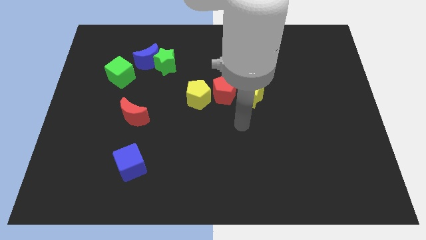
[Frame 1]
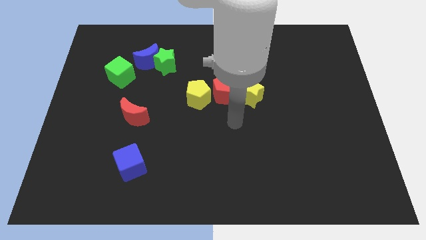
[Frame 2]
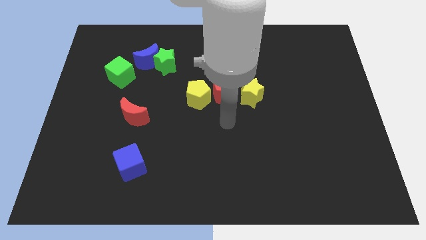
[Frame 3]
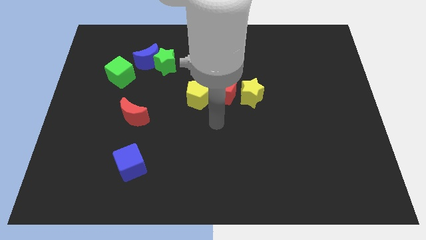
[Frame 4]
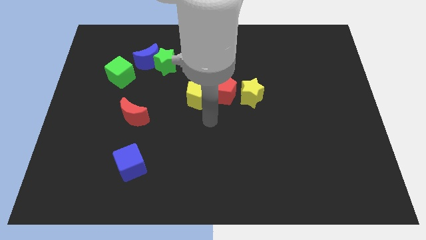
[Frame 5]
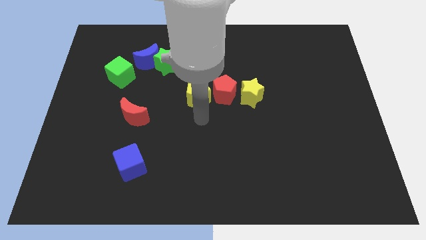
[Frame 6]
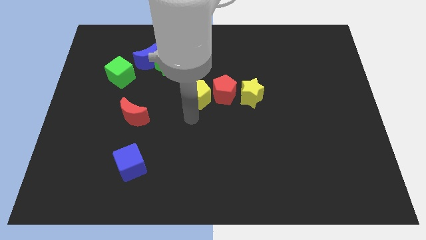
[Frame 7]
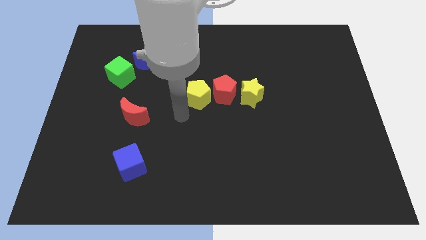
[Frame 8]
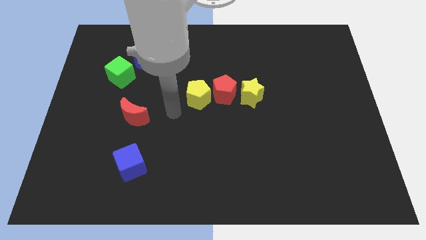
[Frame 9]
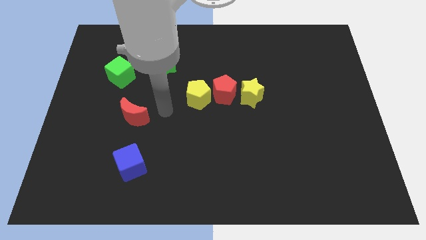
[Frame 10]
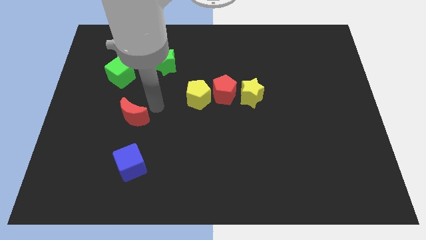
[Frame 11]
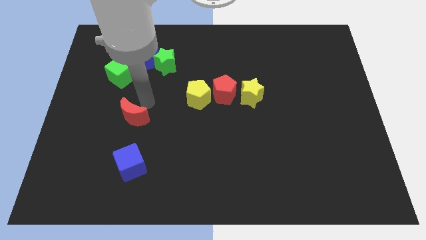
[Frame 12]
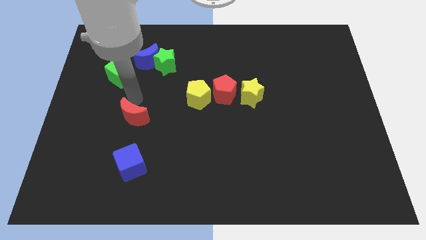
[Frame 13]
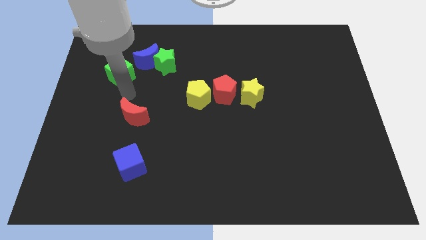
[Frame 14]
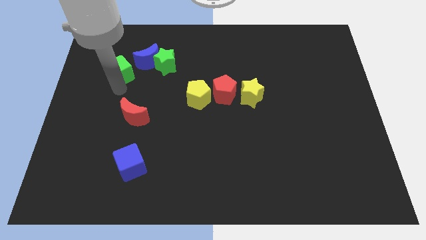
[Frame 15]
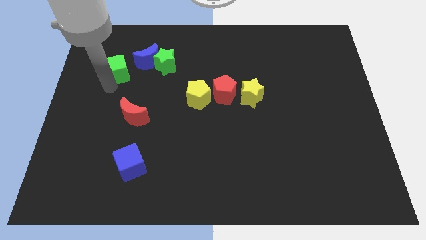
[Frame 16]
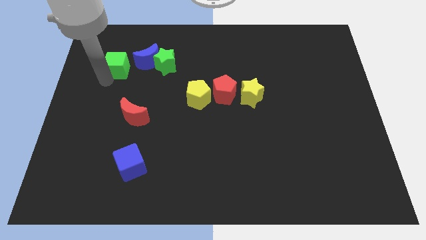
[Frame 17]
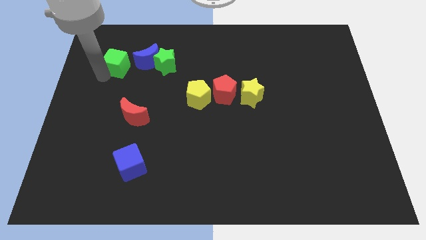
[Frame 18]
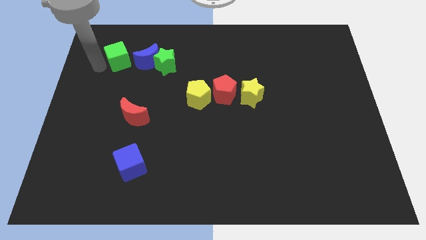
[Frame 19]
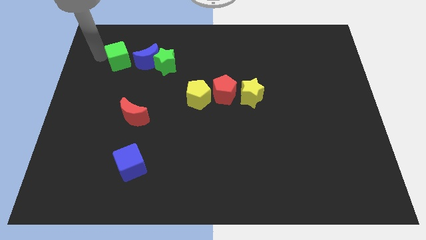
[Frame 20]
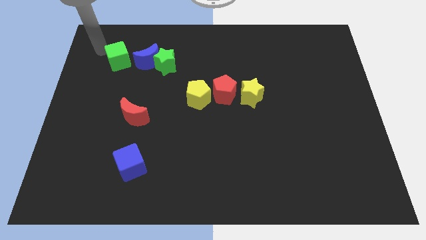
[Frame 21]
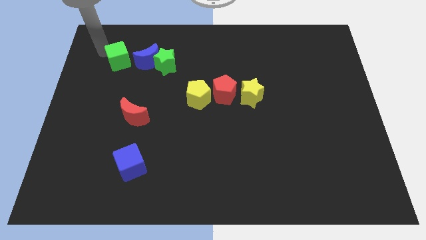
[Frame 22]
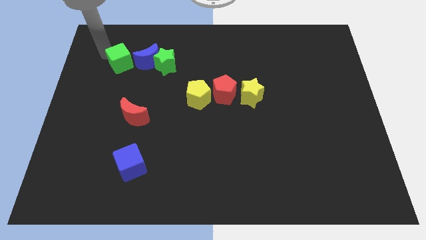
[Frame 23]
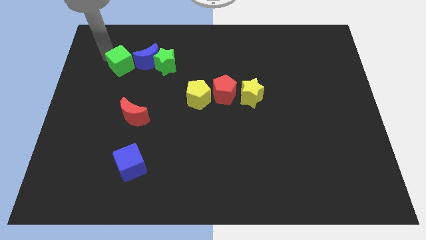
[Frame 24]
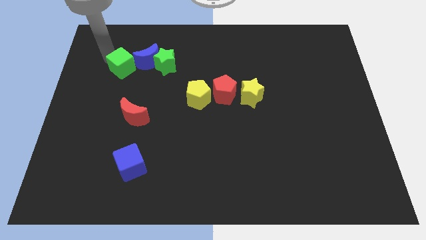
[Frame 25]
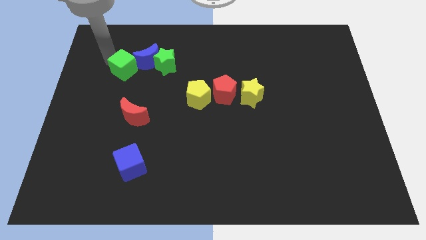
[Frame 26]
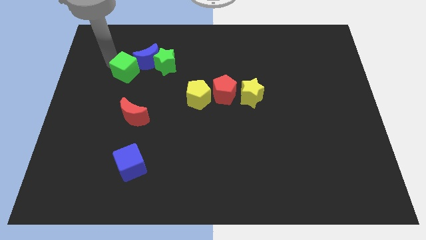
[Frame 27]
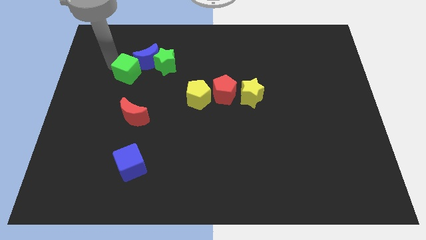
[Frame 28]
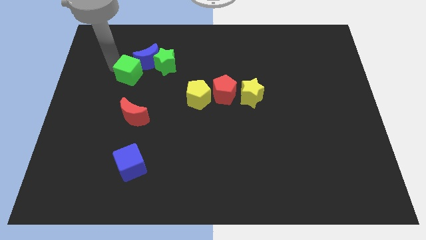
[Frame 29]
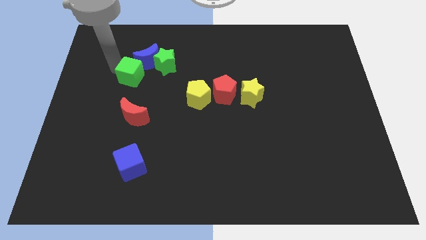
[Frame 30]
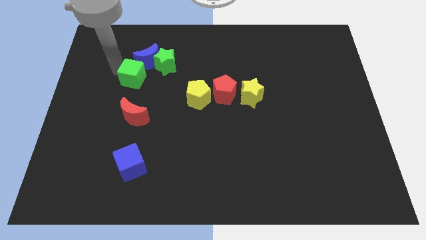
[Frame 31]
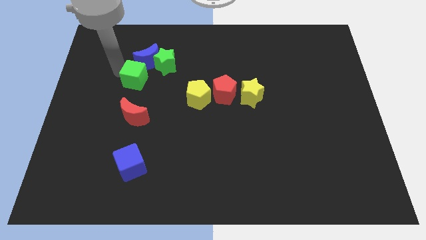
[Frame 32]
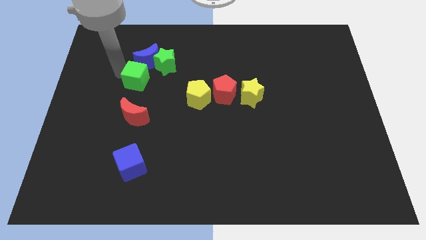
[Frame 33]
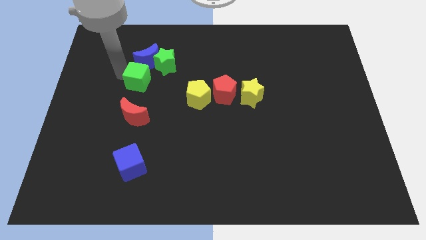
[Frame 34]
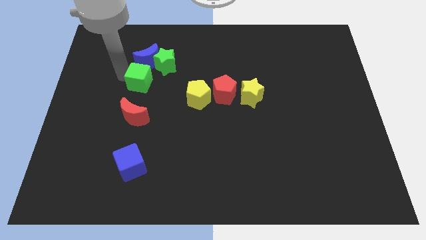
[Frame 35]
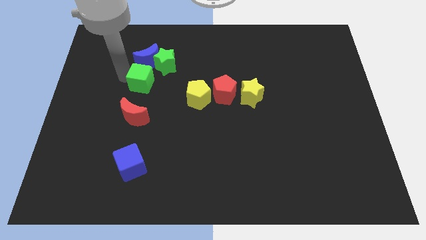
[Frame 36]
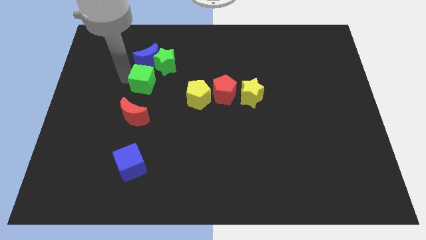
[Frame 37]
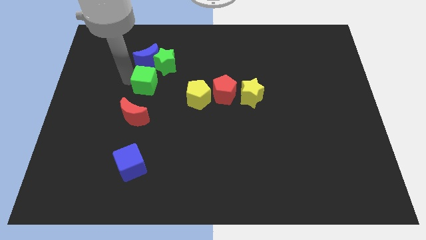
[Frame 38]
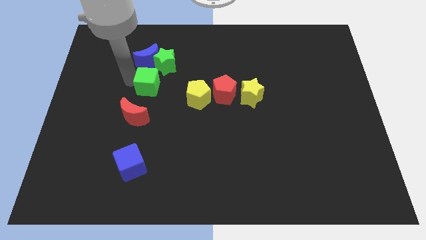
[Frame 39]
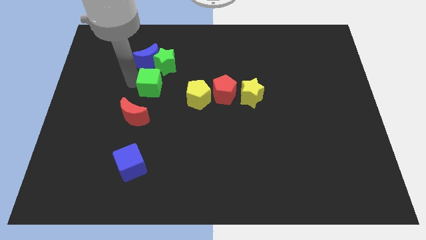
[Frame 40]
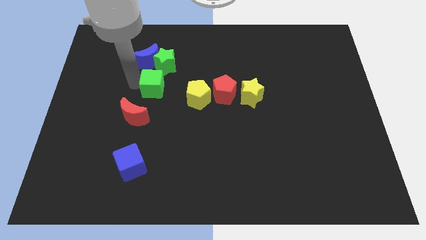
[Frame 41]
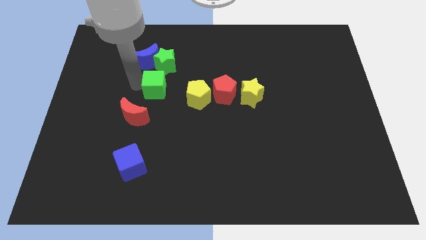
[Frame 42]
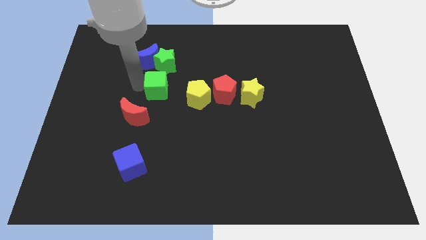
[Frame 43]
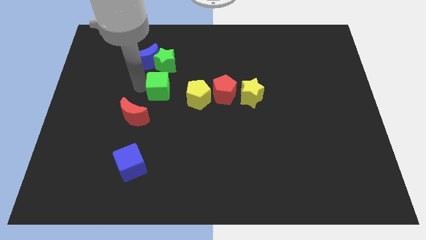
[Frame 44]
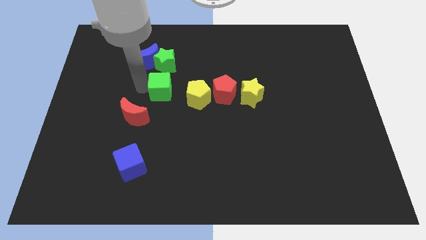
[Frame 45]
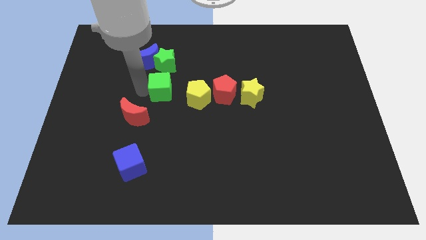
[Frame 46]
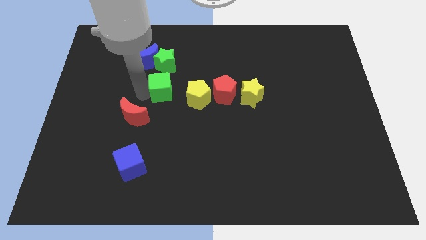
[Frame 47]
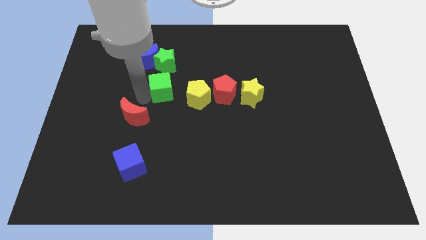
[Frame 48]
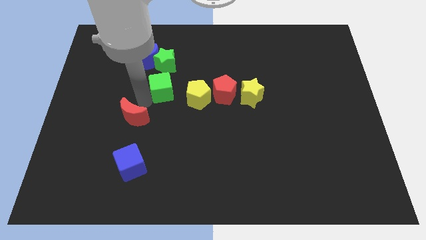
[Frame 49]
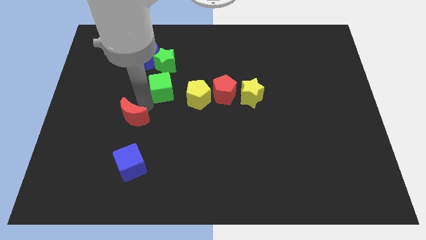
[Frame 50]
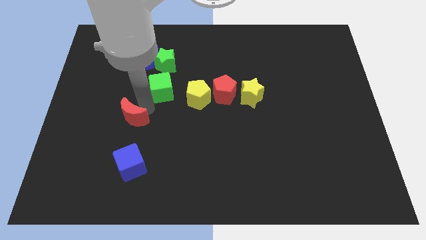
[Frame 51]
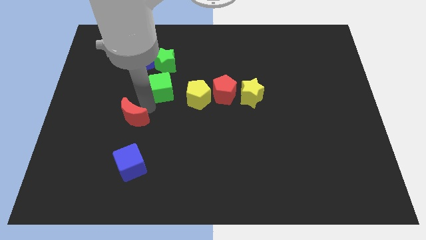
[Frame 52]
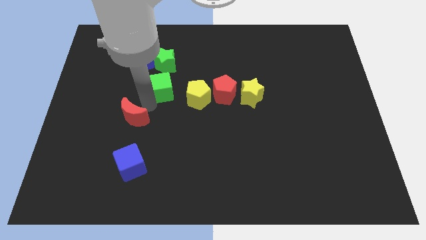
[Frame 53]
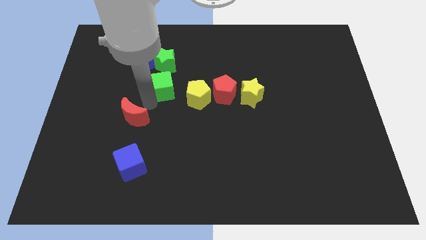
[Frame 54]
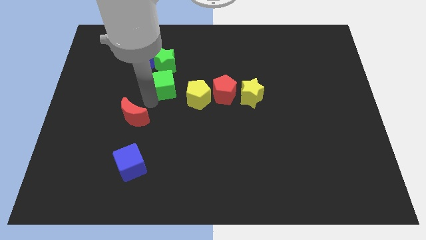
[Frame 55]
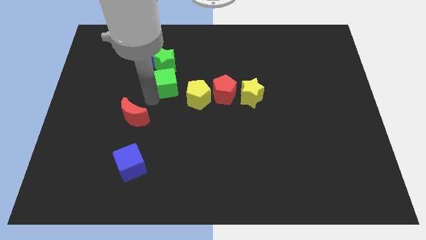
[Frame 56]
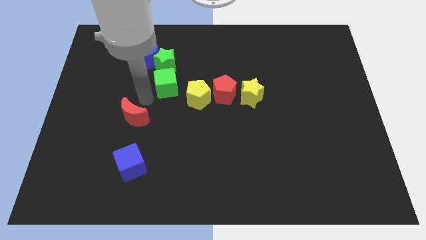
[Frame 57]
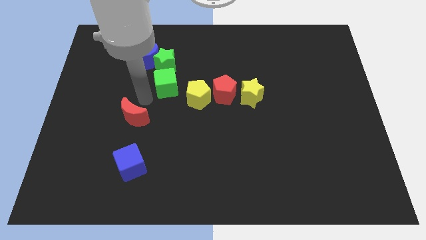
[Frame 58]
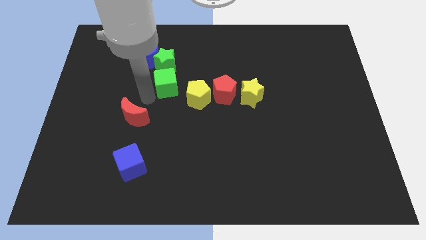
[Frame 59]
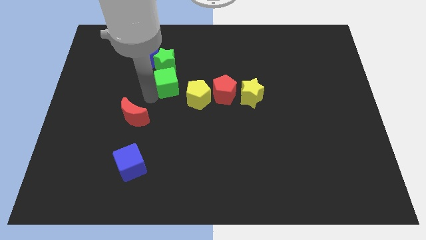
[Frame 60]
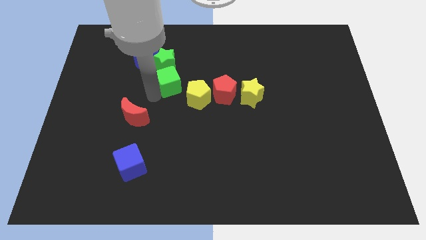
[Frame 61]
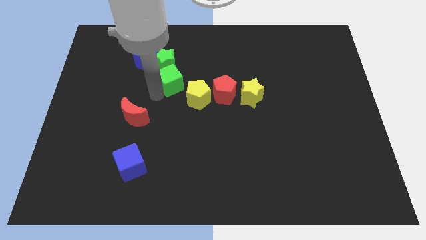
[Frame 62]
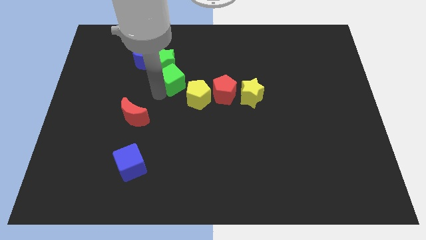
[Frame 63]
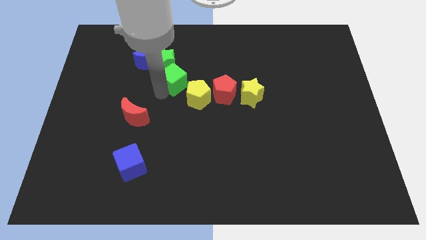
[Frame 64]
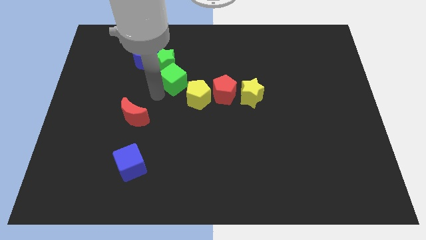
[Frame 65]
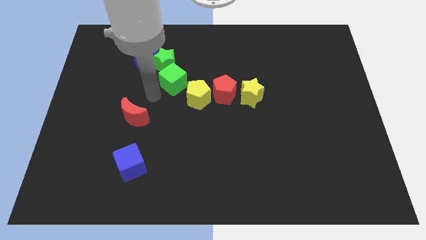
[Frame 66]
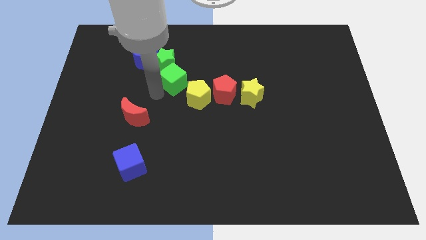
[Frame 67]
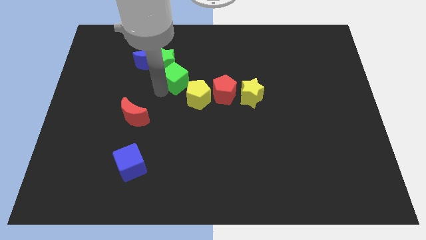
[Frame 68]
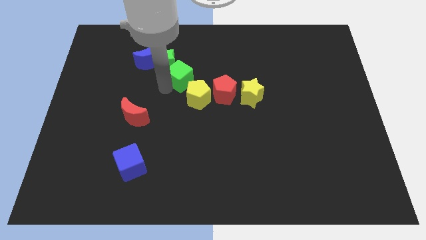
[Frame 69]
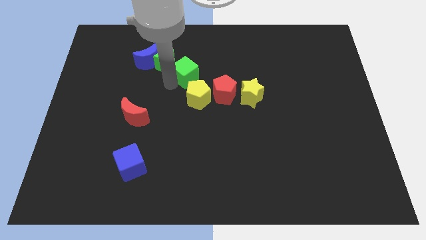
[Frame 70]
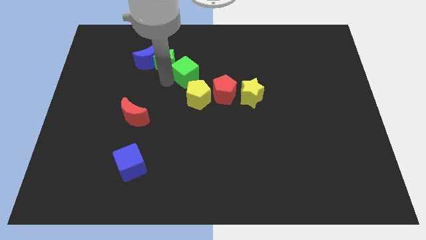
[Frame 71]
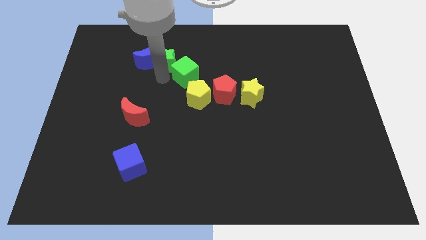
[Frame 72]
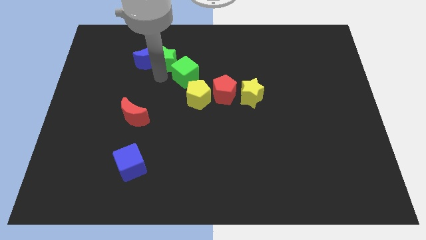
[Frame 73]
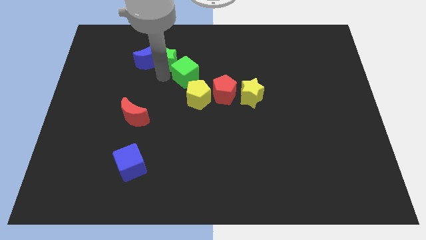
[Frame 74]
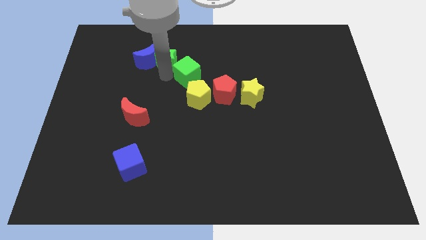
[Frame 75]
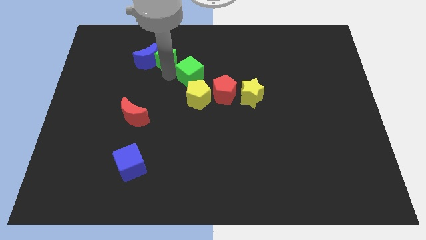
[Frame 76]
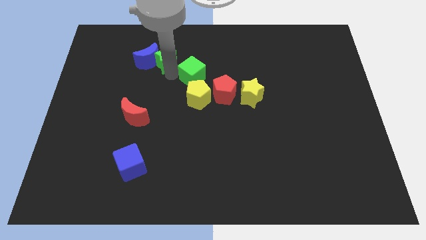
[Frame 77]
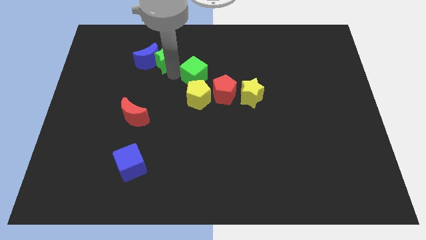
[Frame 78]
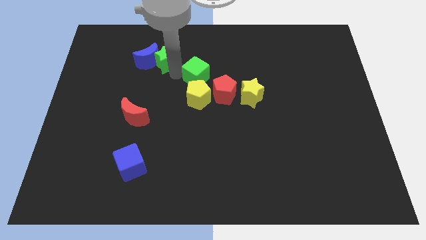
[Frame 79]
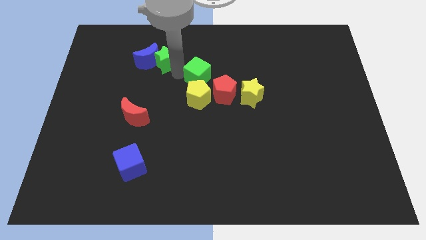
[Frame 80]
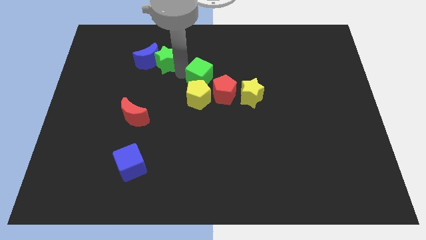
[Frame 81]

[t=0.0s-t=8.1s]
push the green cube to the right
